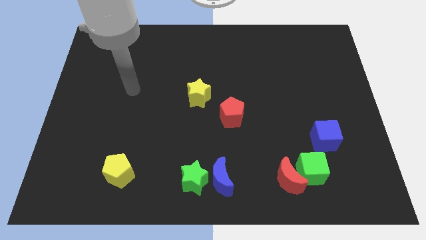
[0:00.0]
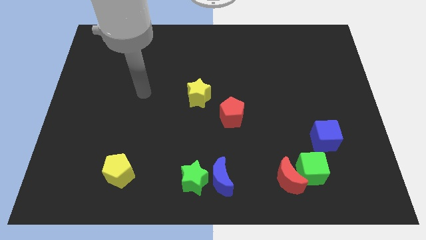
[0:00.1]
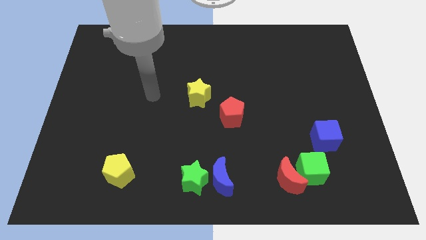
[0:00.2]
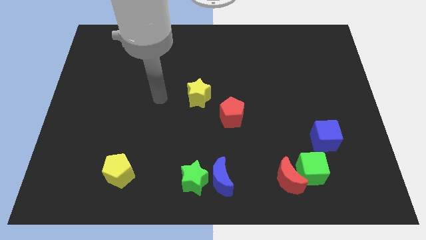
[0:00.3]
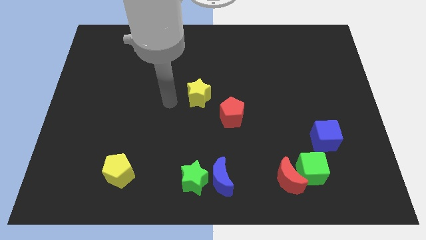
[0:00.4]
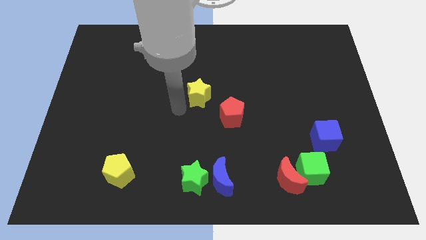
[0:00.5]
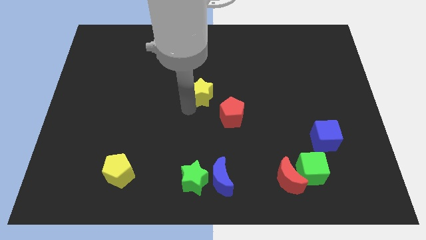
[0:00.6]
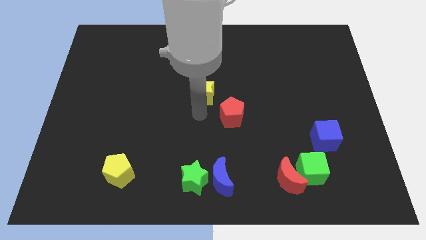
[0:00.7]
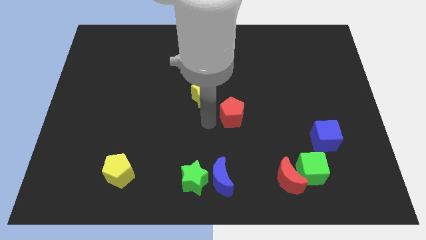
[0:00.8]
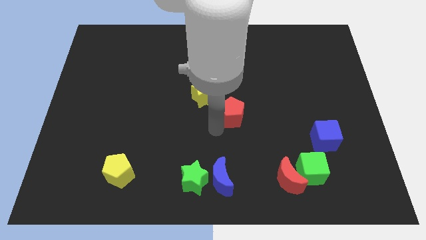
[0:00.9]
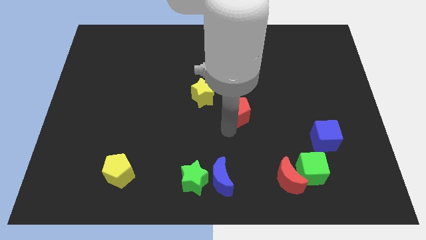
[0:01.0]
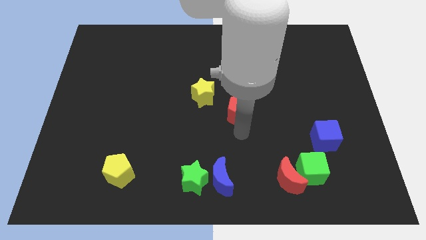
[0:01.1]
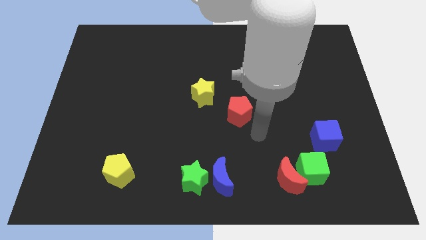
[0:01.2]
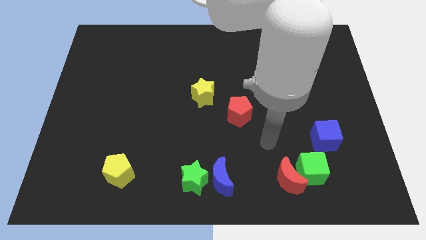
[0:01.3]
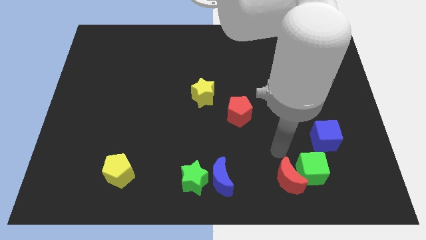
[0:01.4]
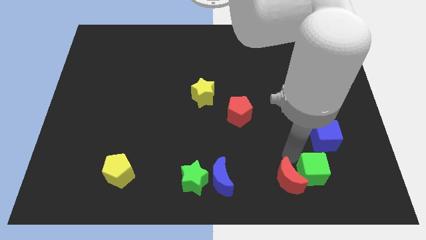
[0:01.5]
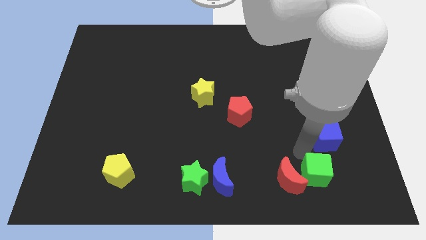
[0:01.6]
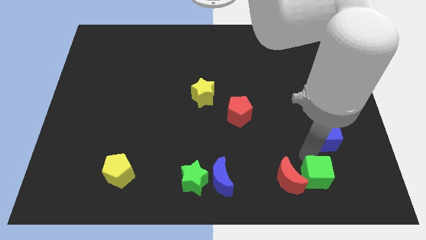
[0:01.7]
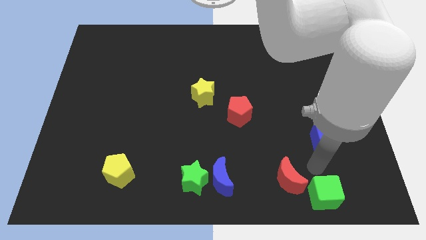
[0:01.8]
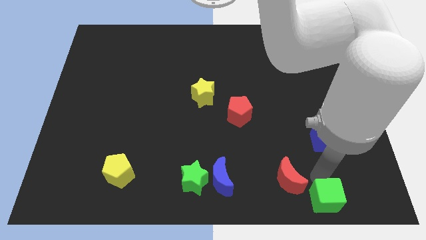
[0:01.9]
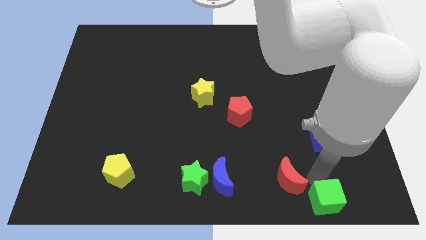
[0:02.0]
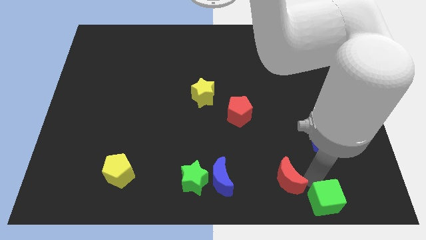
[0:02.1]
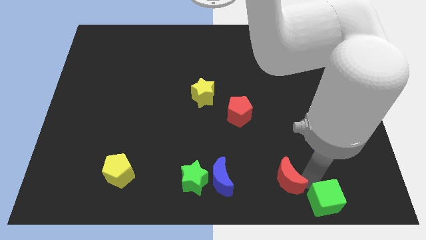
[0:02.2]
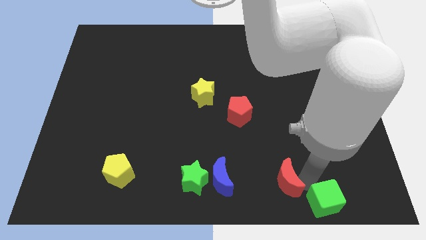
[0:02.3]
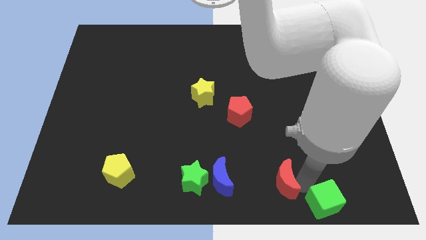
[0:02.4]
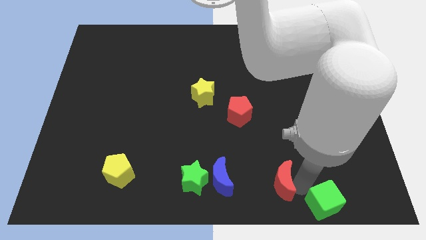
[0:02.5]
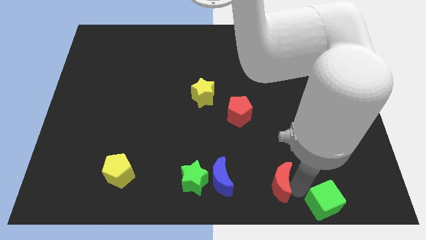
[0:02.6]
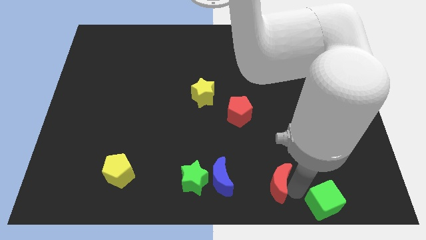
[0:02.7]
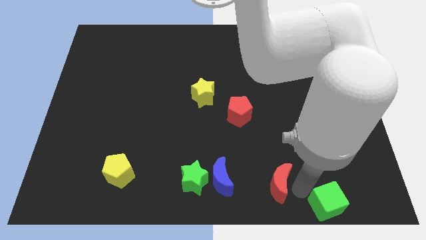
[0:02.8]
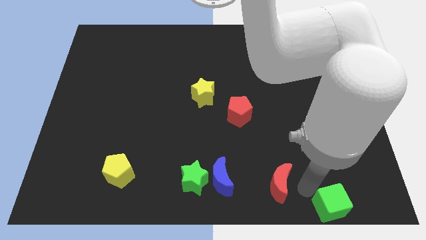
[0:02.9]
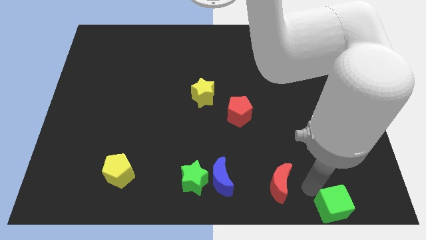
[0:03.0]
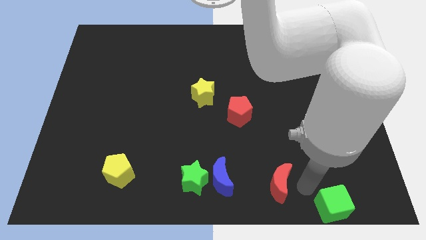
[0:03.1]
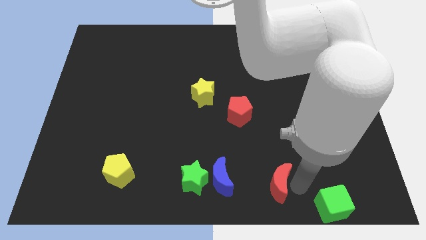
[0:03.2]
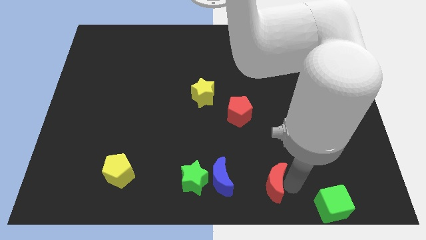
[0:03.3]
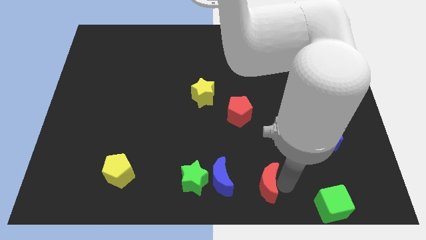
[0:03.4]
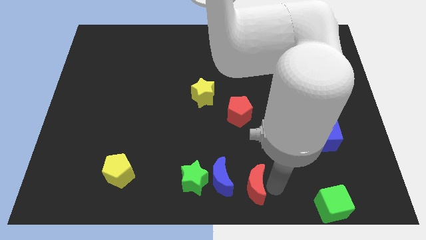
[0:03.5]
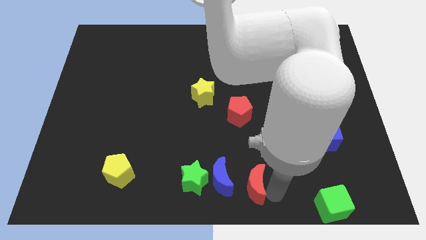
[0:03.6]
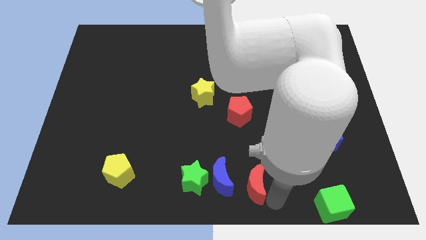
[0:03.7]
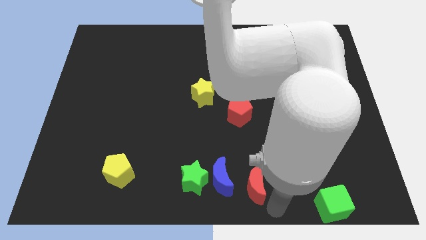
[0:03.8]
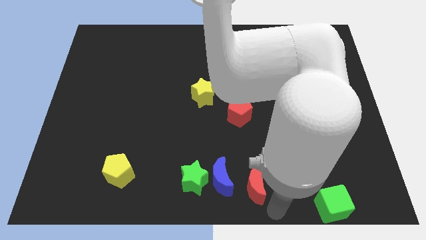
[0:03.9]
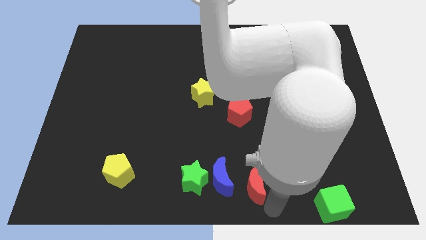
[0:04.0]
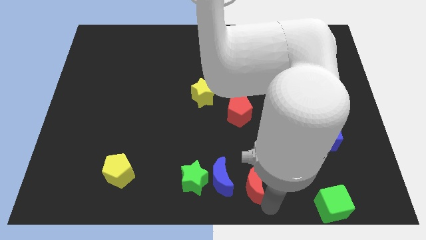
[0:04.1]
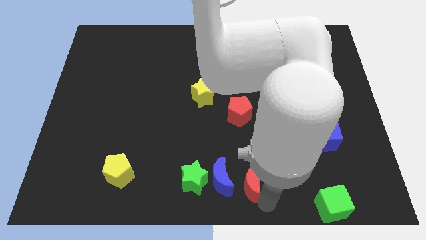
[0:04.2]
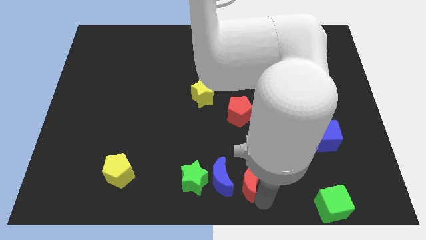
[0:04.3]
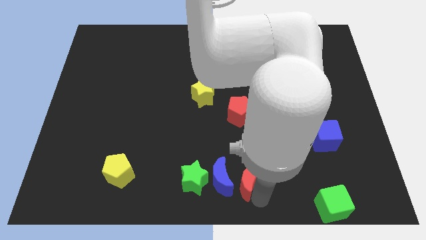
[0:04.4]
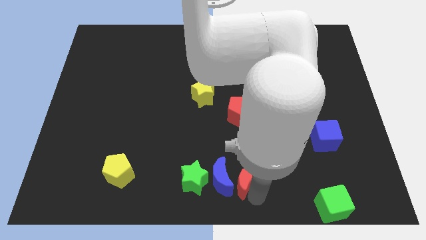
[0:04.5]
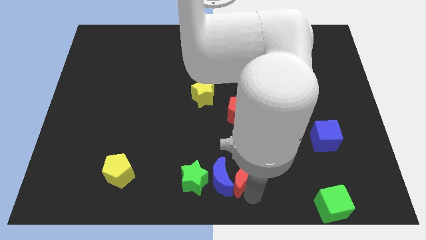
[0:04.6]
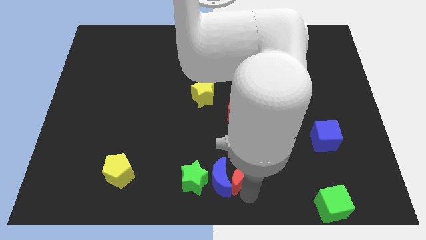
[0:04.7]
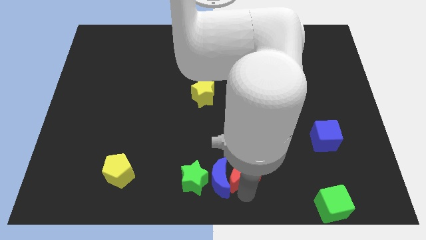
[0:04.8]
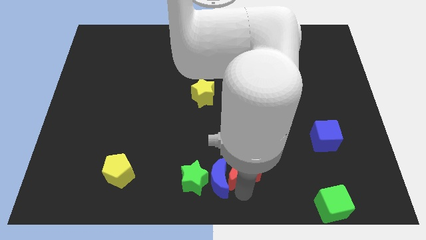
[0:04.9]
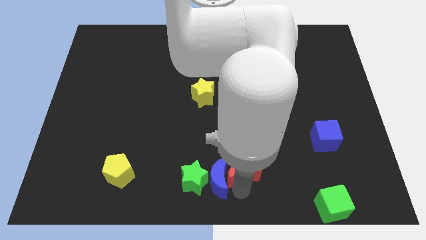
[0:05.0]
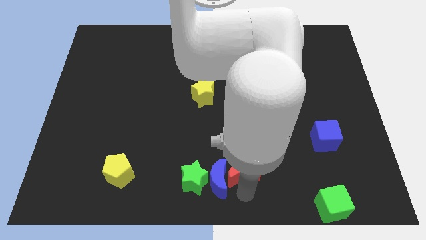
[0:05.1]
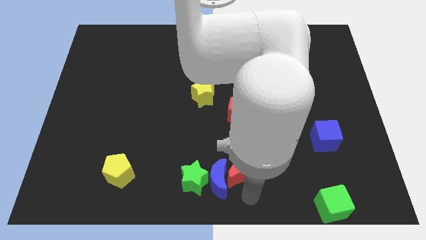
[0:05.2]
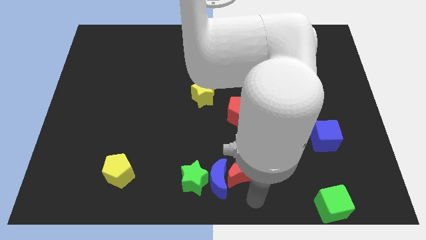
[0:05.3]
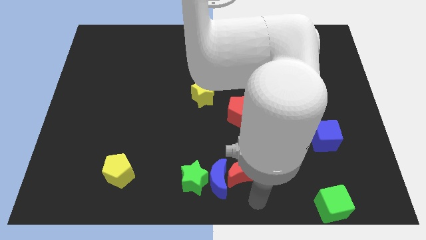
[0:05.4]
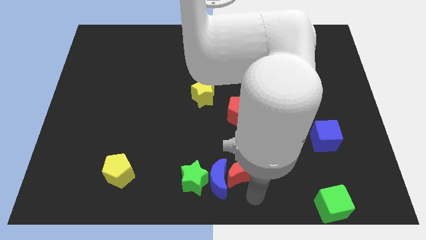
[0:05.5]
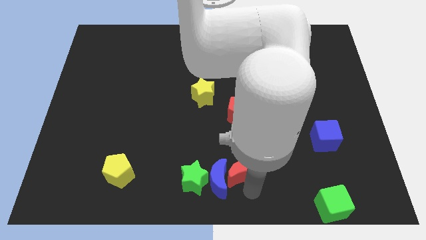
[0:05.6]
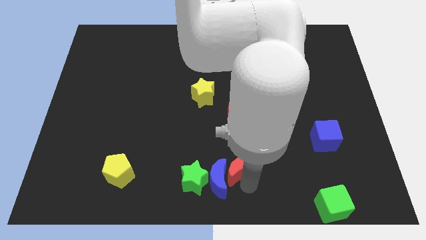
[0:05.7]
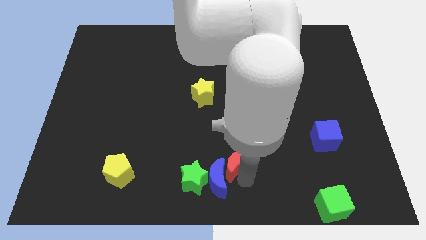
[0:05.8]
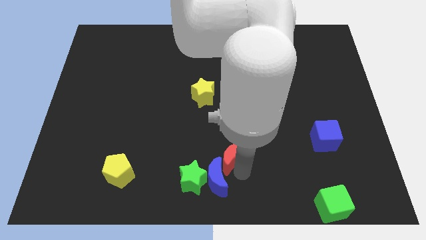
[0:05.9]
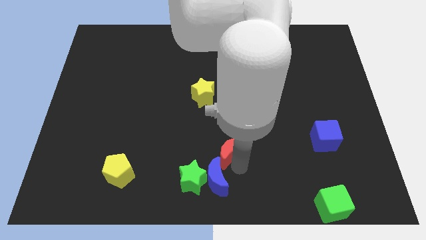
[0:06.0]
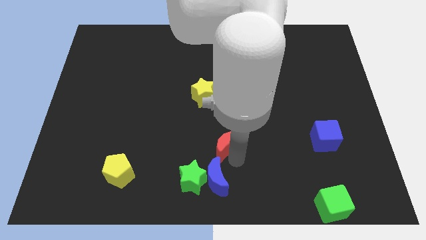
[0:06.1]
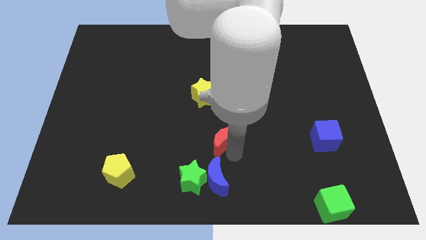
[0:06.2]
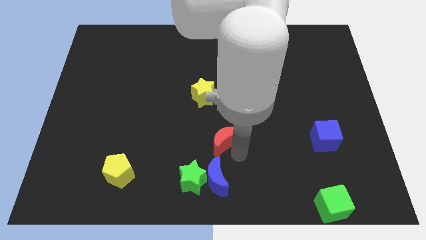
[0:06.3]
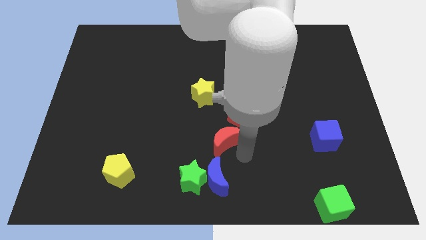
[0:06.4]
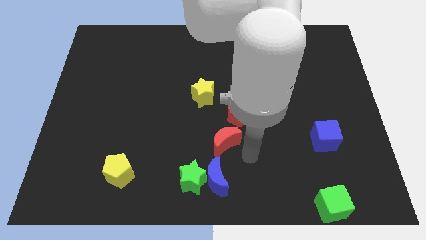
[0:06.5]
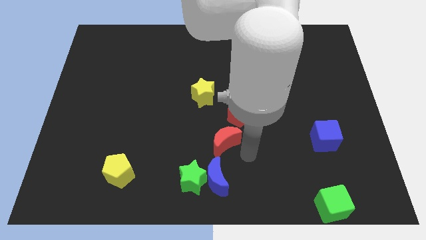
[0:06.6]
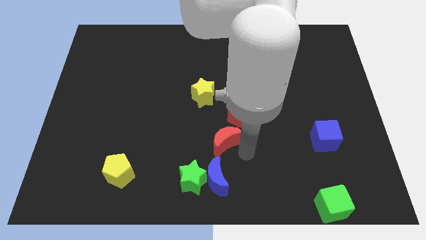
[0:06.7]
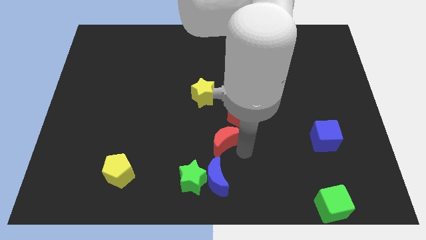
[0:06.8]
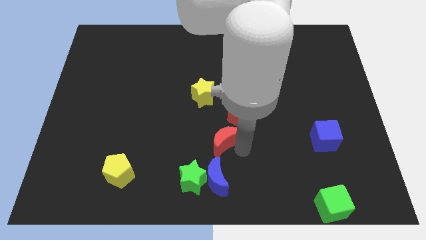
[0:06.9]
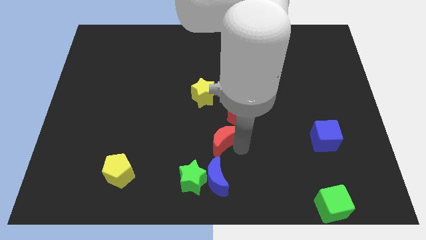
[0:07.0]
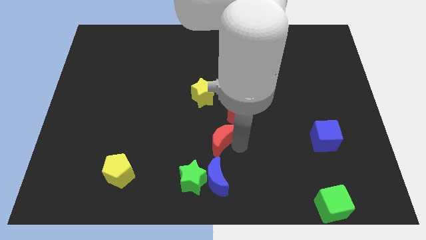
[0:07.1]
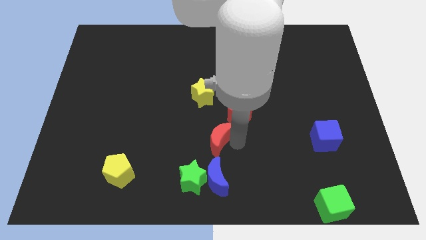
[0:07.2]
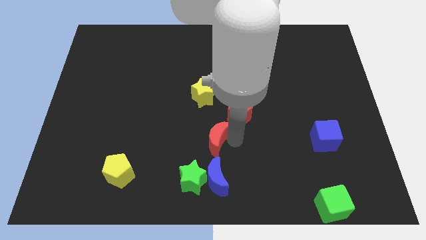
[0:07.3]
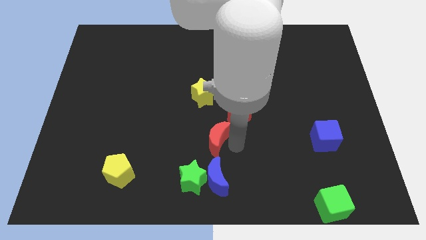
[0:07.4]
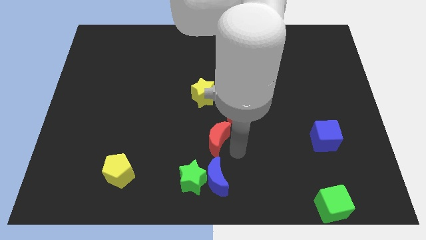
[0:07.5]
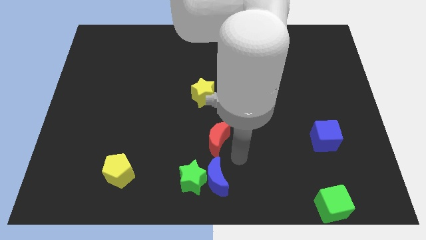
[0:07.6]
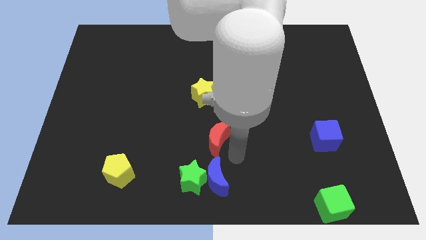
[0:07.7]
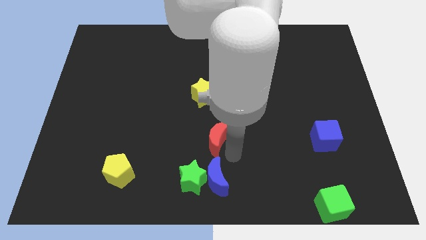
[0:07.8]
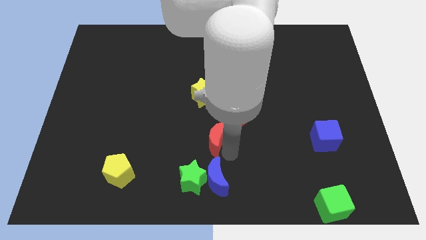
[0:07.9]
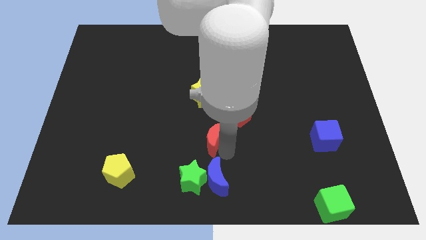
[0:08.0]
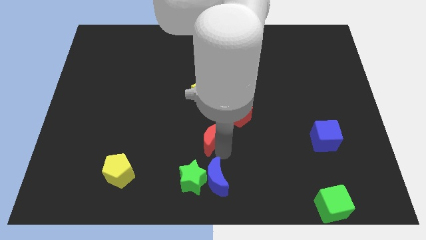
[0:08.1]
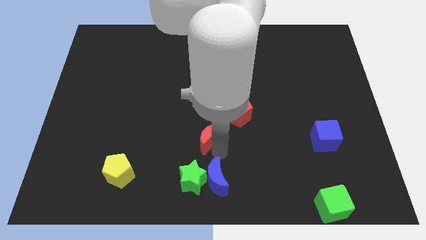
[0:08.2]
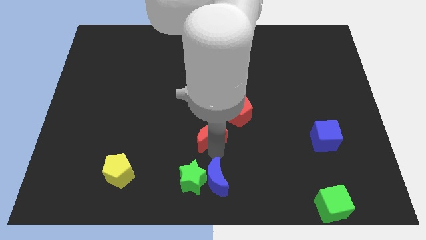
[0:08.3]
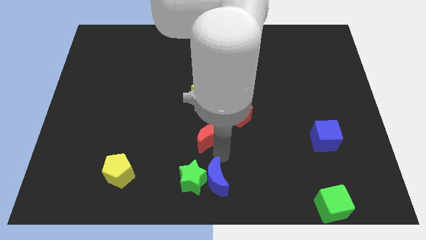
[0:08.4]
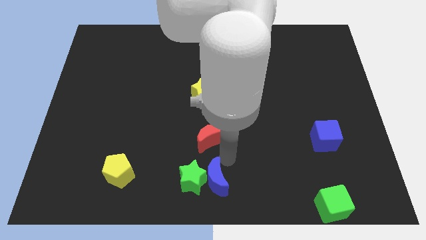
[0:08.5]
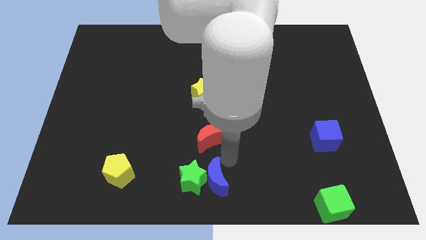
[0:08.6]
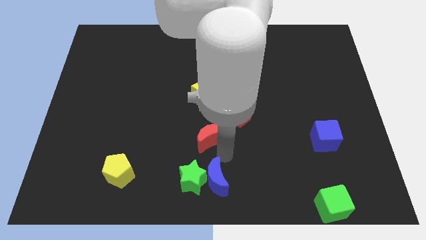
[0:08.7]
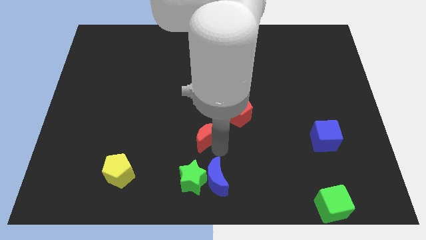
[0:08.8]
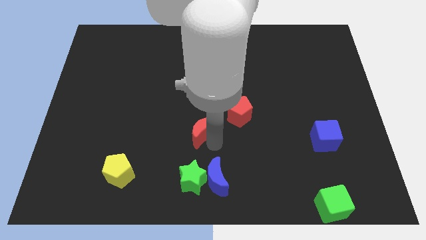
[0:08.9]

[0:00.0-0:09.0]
slide the red moon up and to the left
